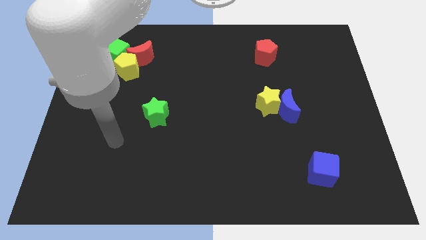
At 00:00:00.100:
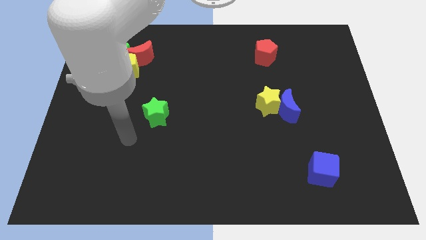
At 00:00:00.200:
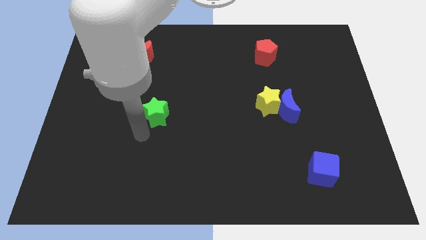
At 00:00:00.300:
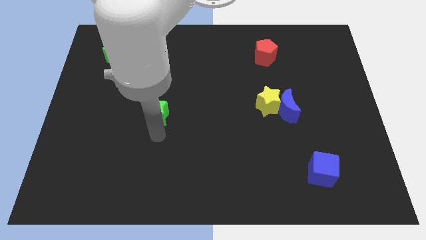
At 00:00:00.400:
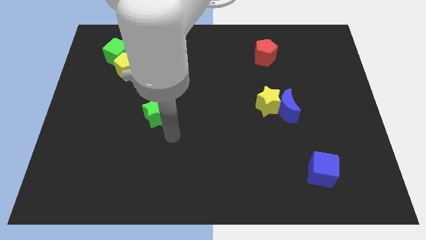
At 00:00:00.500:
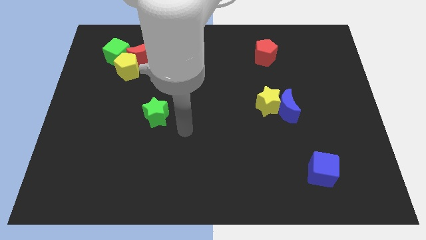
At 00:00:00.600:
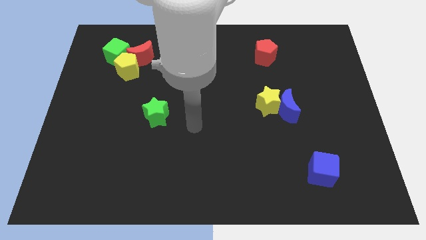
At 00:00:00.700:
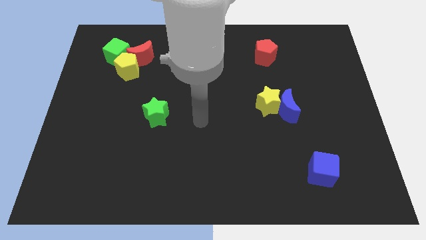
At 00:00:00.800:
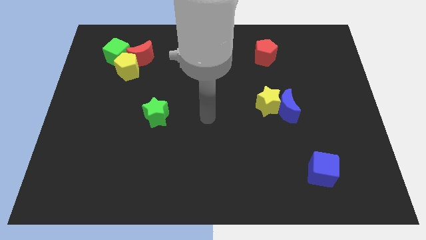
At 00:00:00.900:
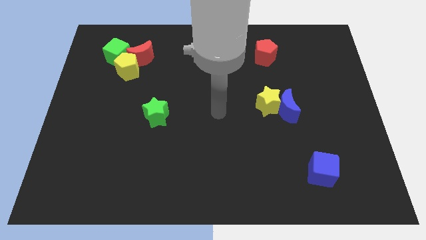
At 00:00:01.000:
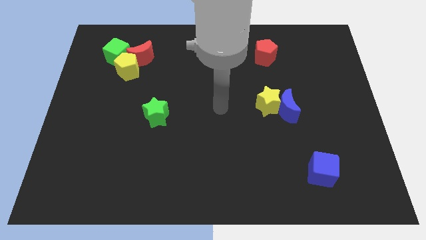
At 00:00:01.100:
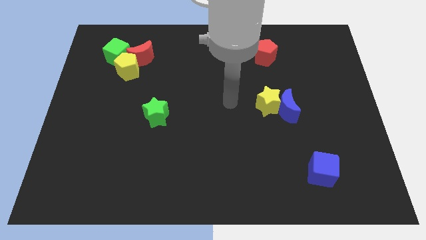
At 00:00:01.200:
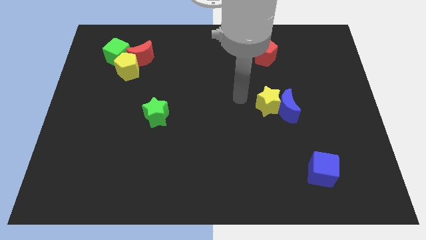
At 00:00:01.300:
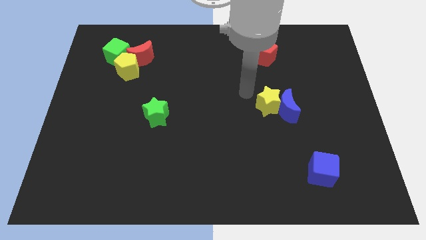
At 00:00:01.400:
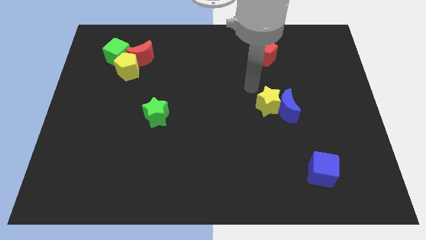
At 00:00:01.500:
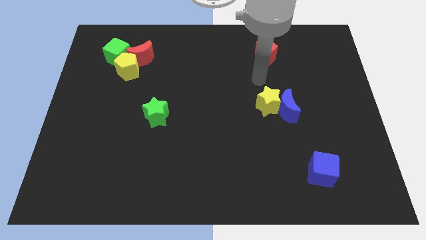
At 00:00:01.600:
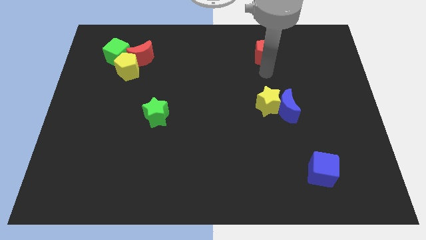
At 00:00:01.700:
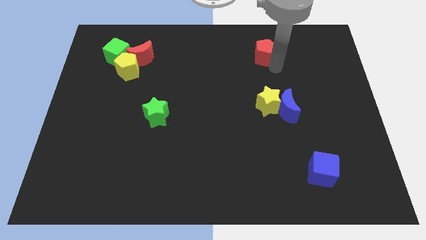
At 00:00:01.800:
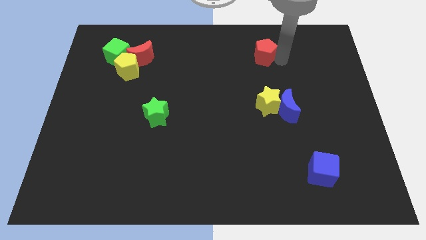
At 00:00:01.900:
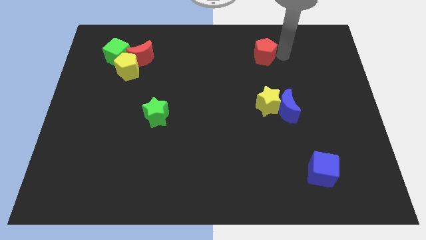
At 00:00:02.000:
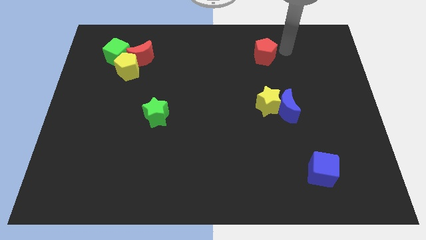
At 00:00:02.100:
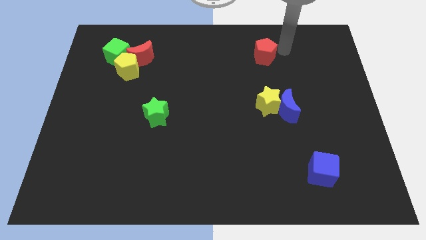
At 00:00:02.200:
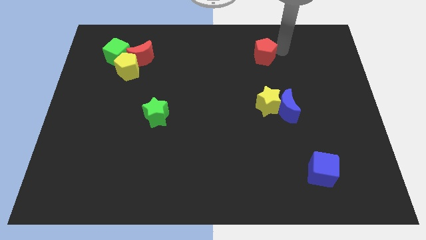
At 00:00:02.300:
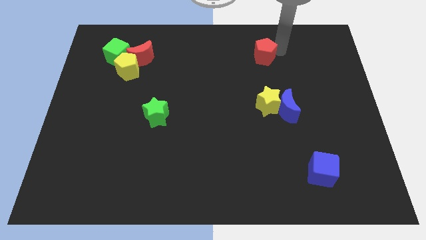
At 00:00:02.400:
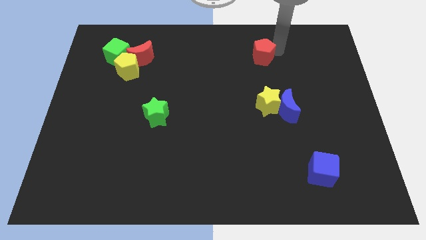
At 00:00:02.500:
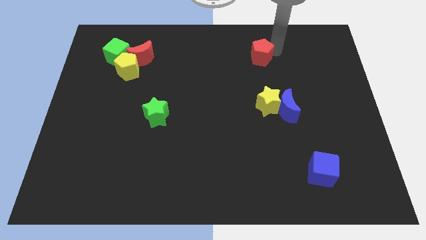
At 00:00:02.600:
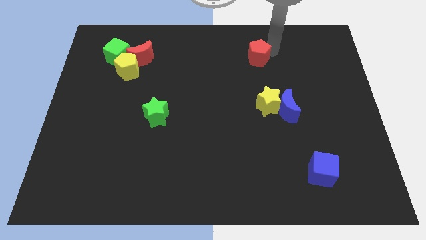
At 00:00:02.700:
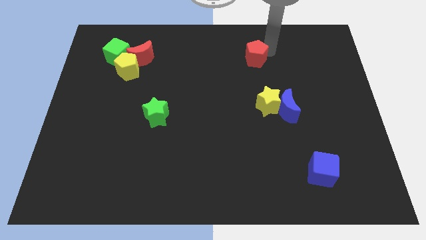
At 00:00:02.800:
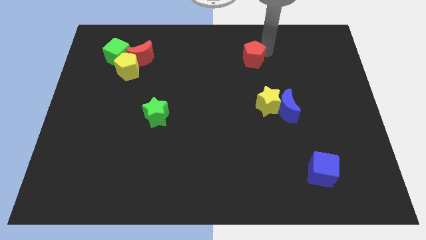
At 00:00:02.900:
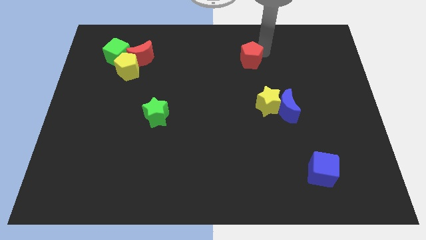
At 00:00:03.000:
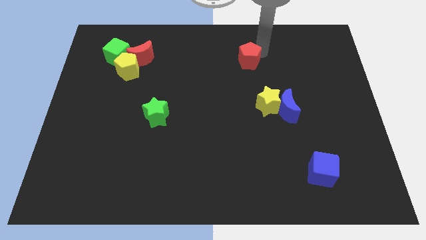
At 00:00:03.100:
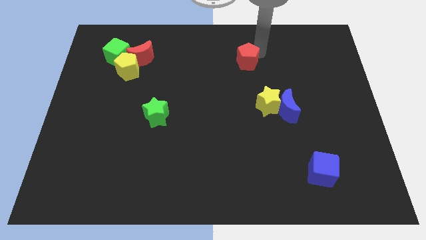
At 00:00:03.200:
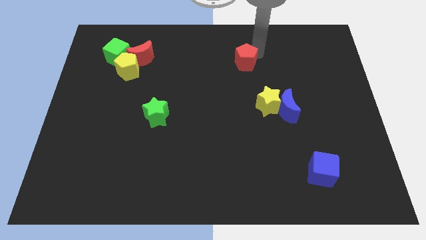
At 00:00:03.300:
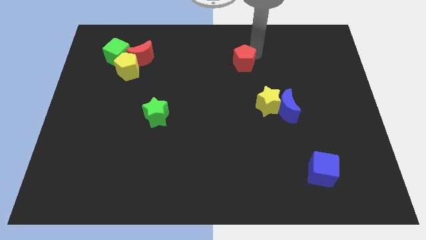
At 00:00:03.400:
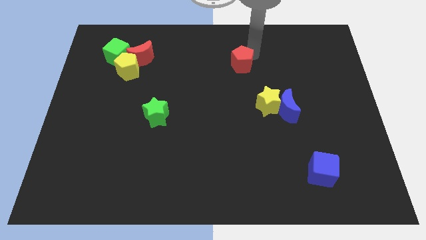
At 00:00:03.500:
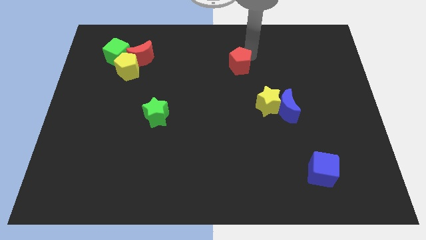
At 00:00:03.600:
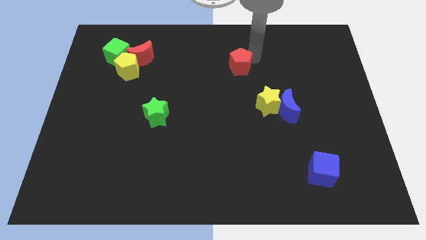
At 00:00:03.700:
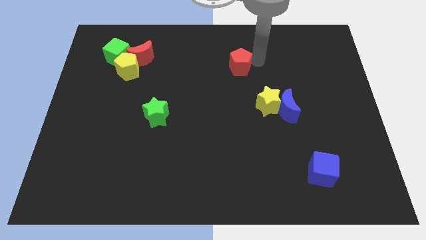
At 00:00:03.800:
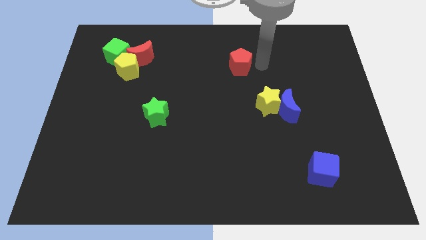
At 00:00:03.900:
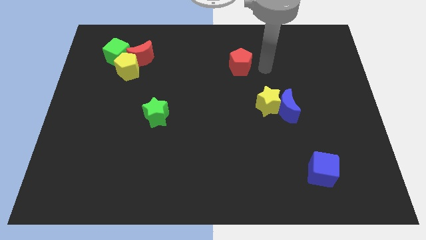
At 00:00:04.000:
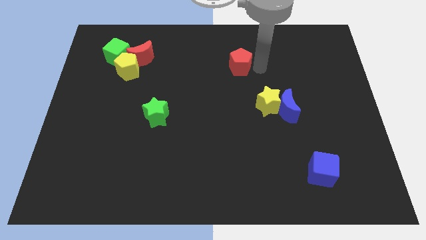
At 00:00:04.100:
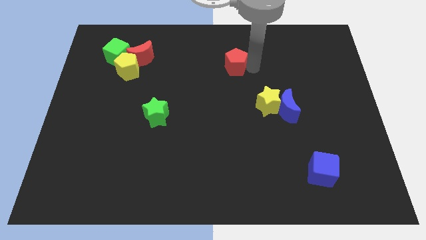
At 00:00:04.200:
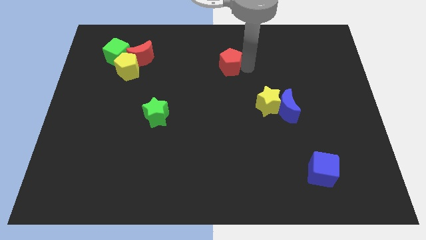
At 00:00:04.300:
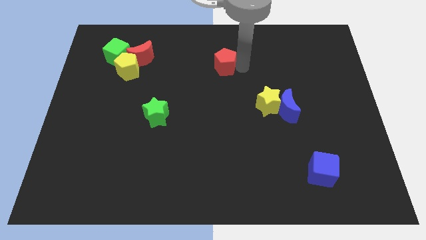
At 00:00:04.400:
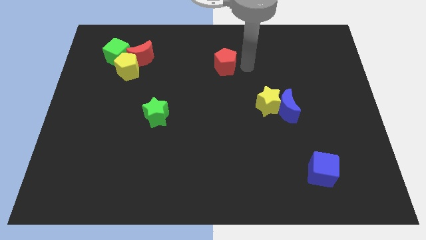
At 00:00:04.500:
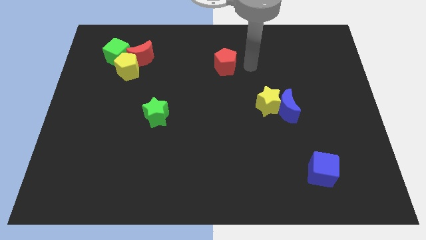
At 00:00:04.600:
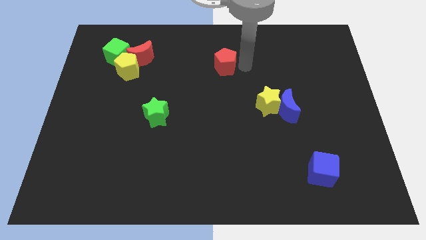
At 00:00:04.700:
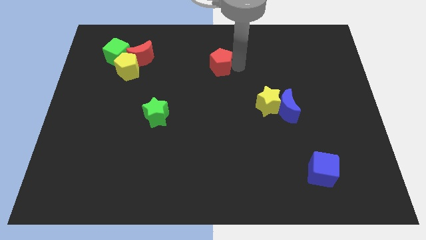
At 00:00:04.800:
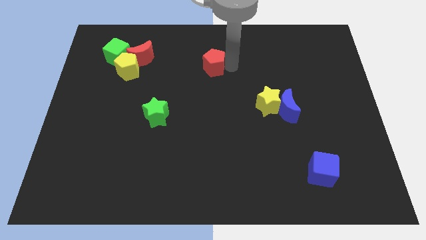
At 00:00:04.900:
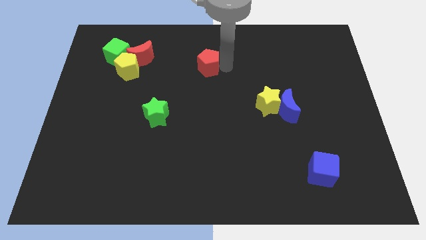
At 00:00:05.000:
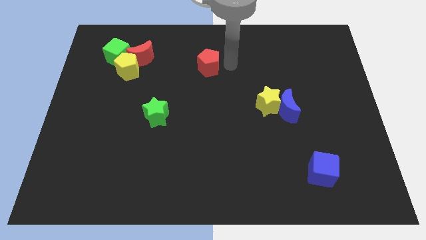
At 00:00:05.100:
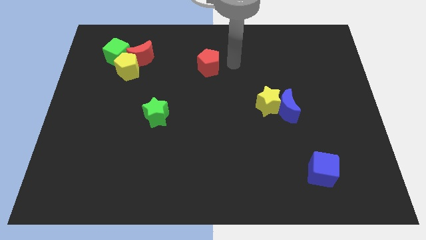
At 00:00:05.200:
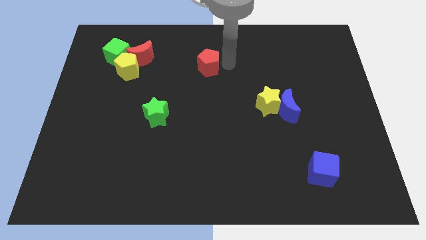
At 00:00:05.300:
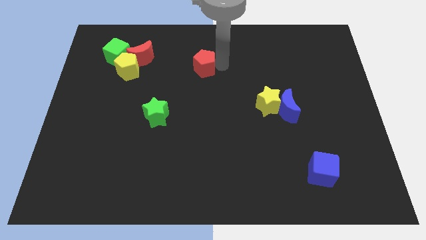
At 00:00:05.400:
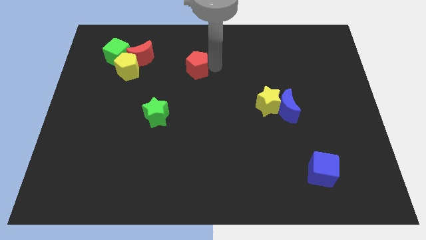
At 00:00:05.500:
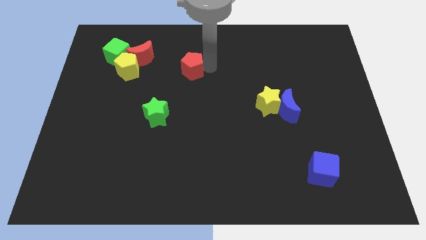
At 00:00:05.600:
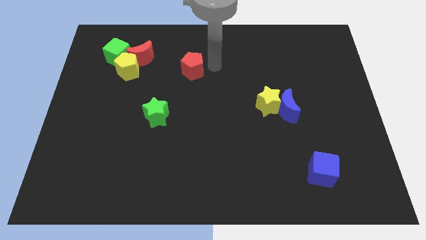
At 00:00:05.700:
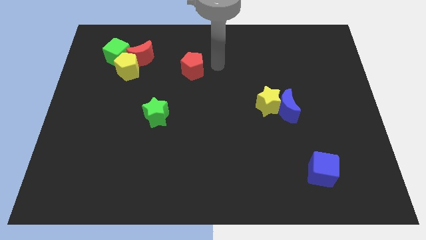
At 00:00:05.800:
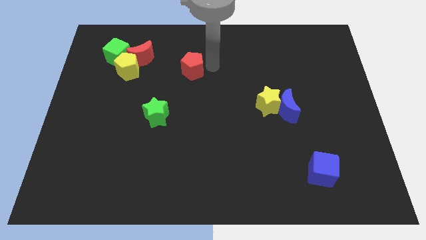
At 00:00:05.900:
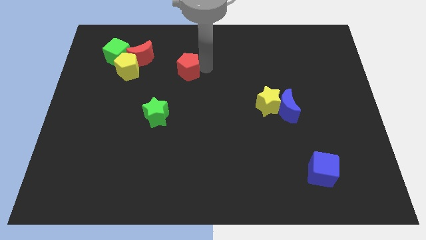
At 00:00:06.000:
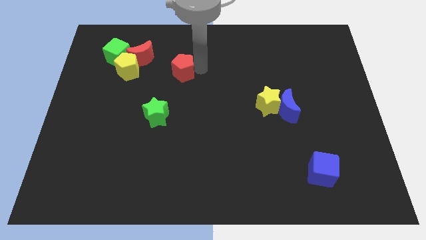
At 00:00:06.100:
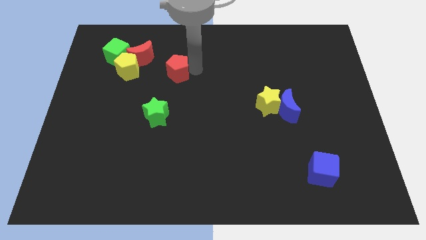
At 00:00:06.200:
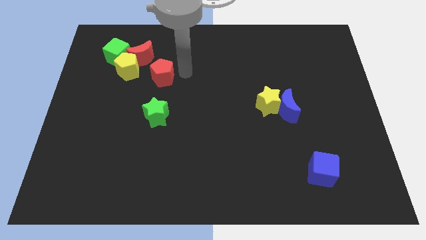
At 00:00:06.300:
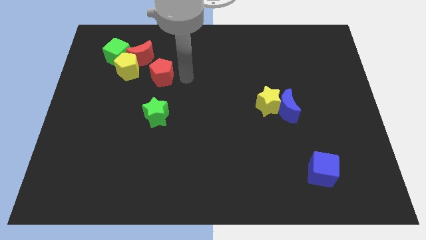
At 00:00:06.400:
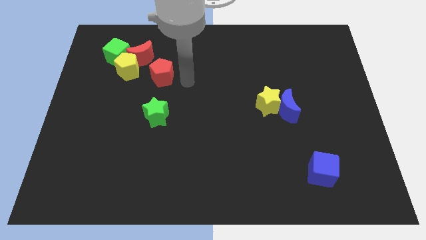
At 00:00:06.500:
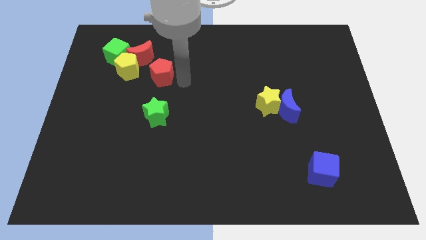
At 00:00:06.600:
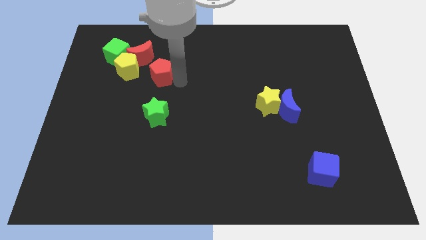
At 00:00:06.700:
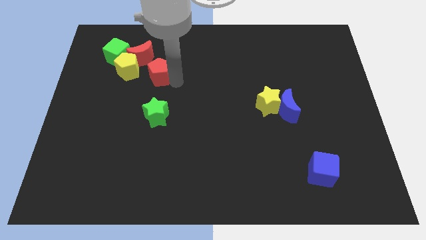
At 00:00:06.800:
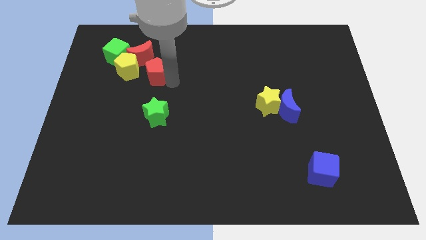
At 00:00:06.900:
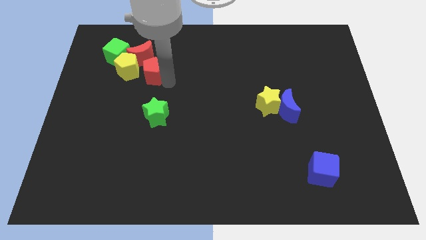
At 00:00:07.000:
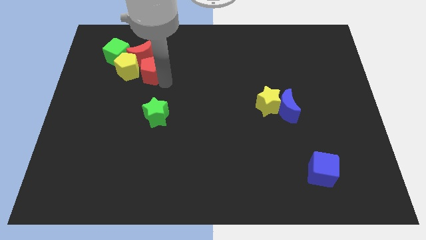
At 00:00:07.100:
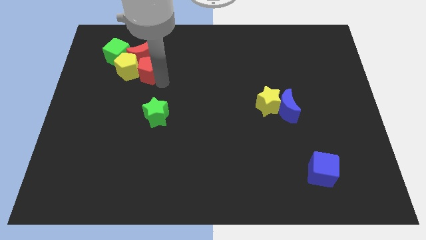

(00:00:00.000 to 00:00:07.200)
slide the red pentagon towards the yellow pentagon
